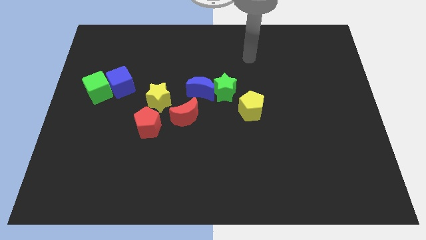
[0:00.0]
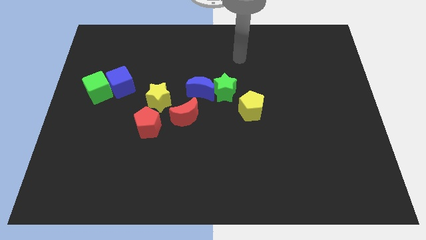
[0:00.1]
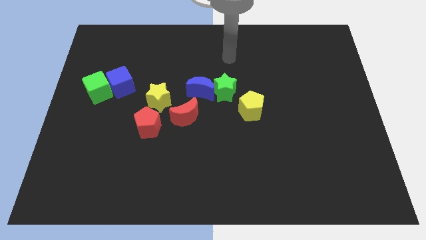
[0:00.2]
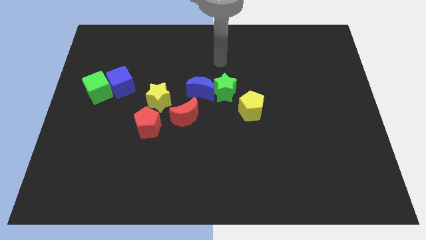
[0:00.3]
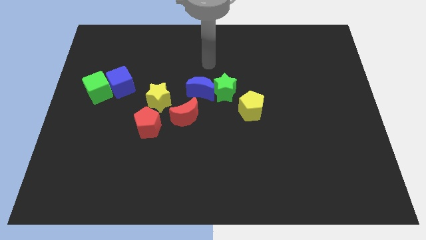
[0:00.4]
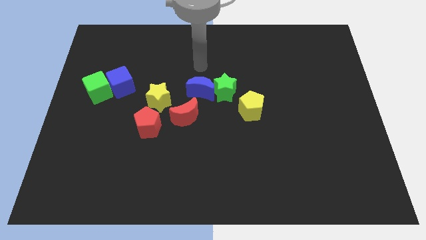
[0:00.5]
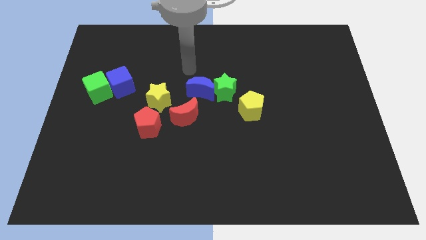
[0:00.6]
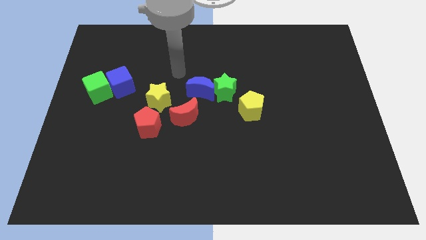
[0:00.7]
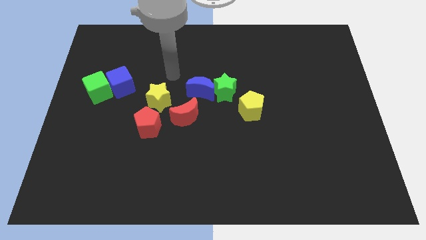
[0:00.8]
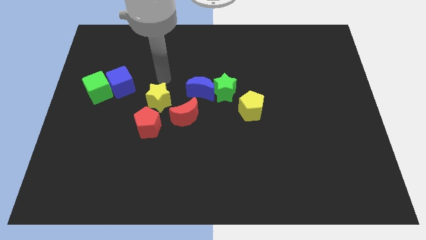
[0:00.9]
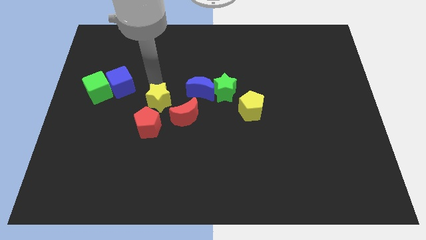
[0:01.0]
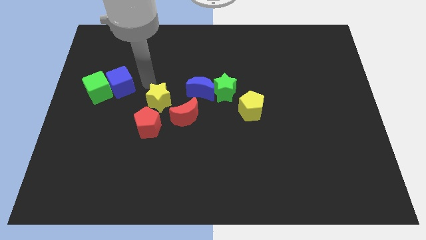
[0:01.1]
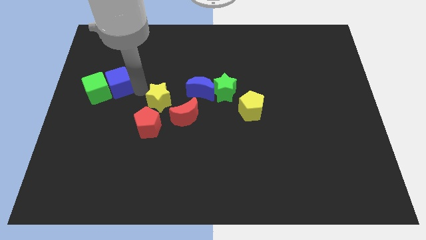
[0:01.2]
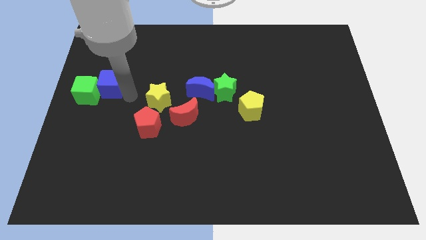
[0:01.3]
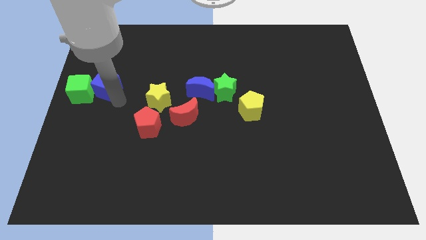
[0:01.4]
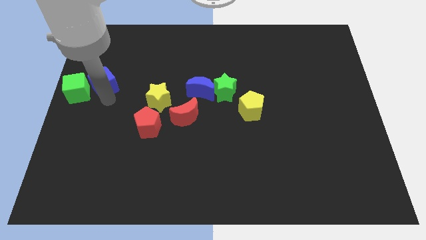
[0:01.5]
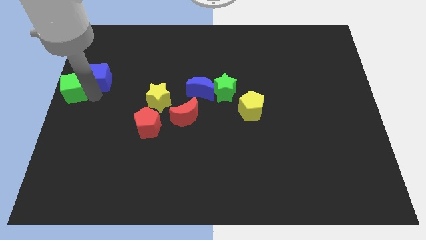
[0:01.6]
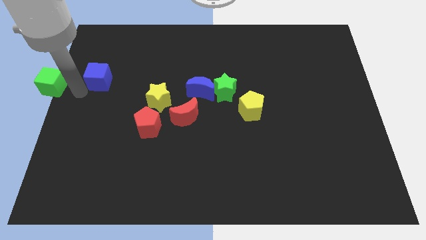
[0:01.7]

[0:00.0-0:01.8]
pull the blue cube apart from the green cube

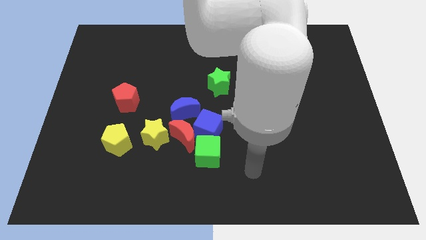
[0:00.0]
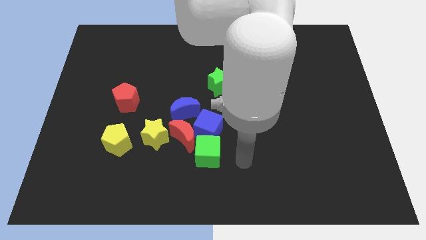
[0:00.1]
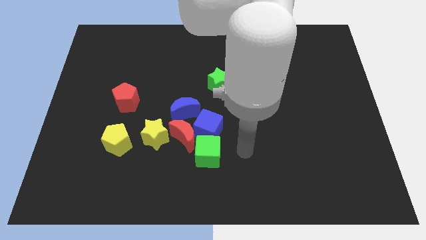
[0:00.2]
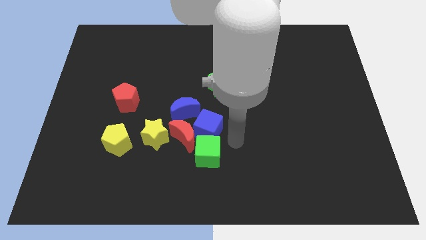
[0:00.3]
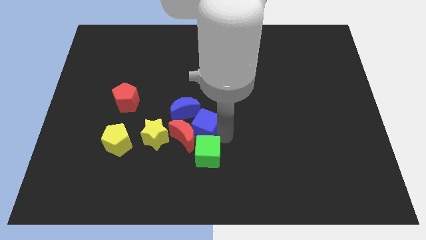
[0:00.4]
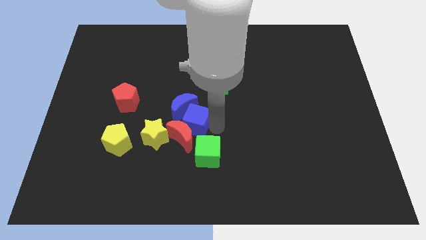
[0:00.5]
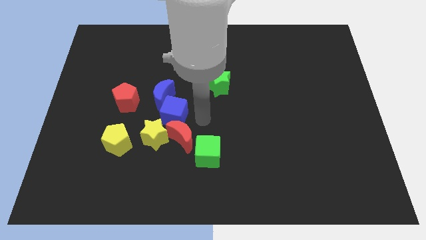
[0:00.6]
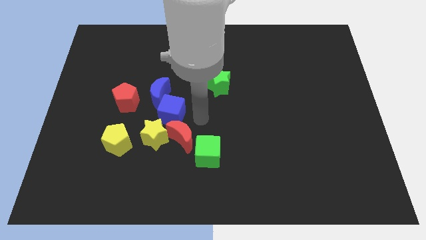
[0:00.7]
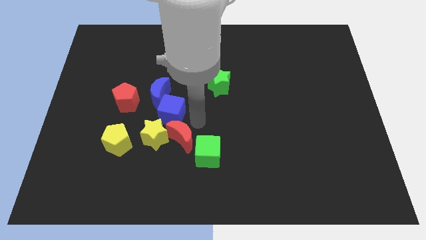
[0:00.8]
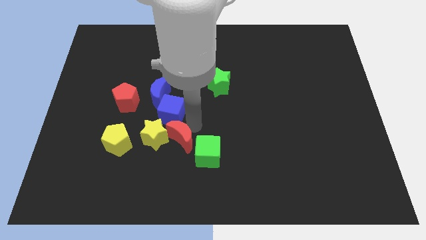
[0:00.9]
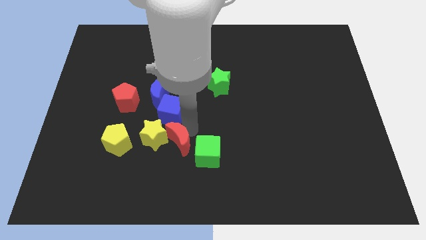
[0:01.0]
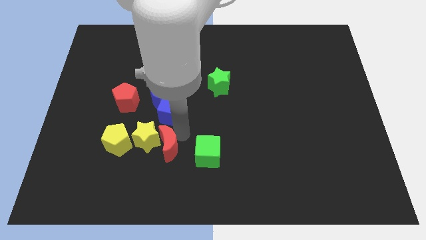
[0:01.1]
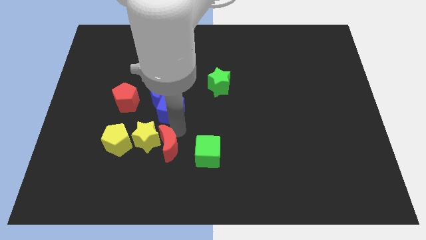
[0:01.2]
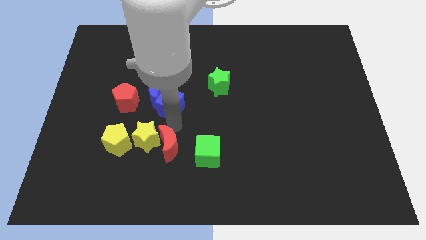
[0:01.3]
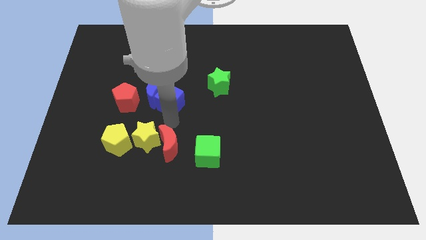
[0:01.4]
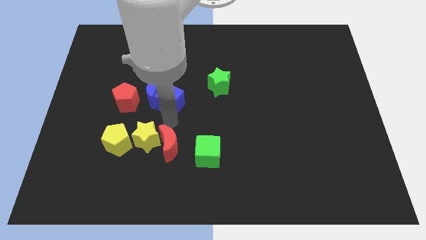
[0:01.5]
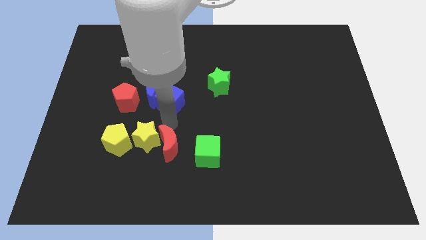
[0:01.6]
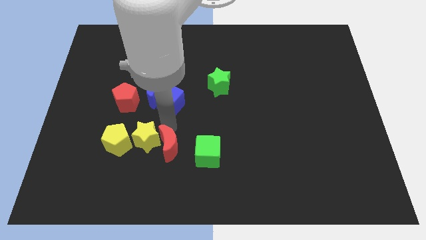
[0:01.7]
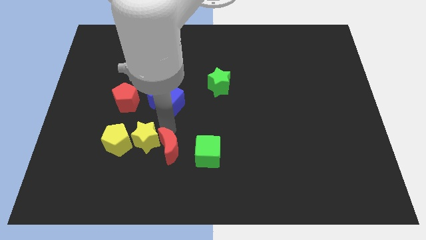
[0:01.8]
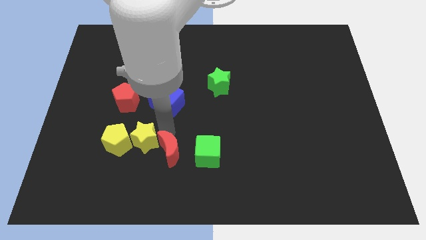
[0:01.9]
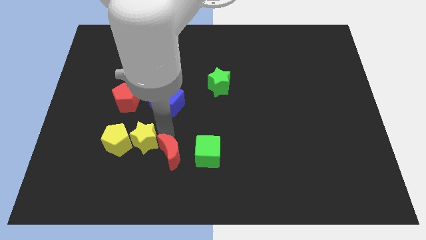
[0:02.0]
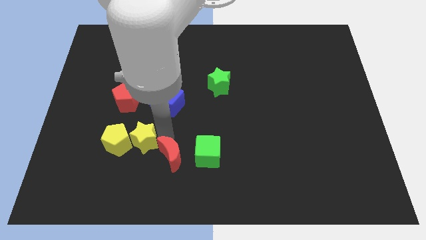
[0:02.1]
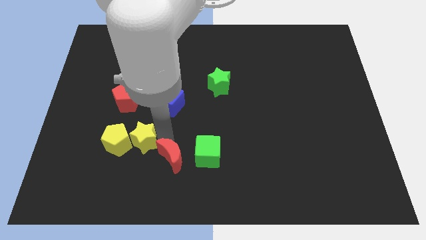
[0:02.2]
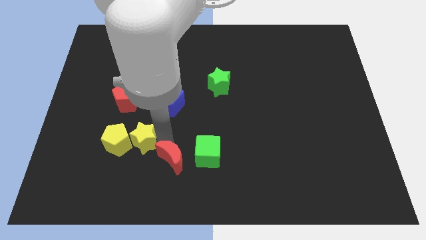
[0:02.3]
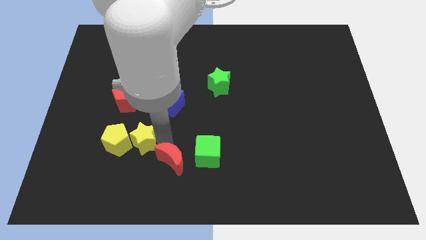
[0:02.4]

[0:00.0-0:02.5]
pull the red moon apart from the group of blocks

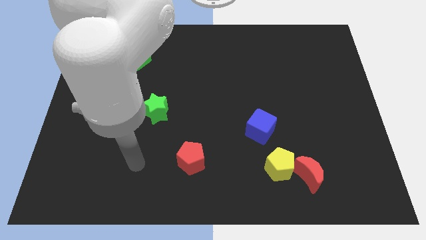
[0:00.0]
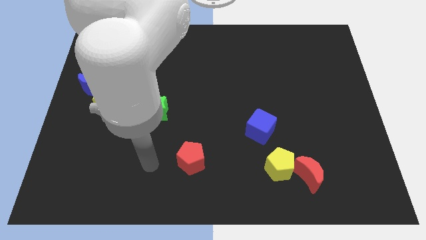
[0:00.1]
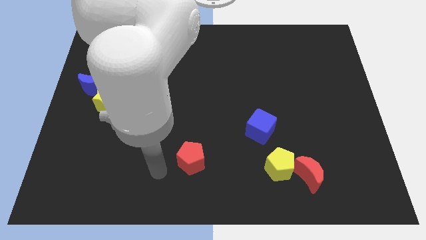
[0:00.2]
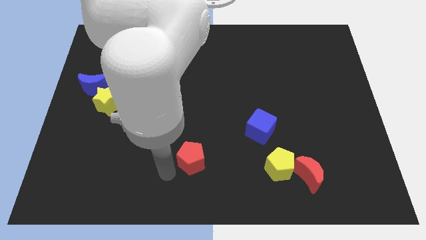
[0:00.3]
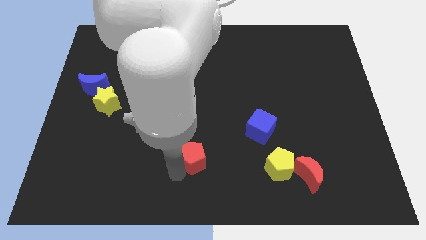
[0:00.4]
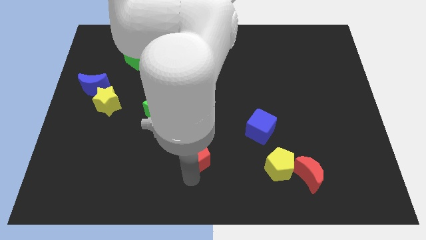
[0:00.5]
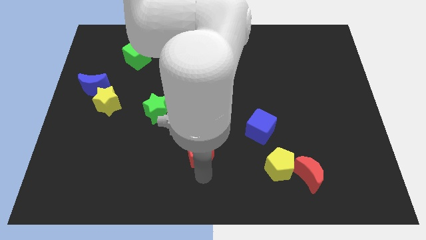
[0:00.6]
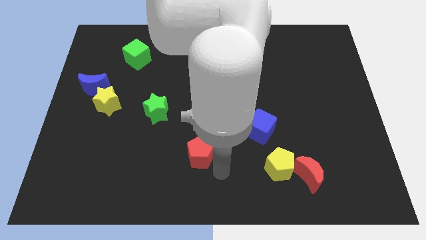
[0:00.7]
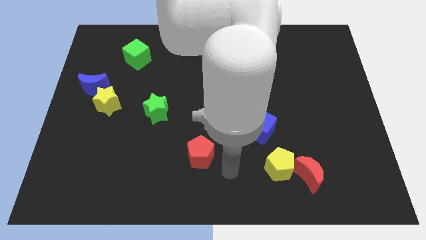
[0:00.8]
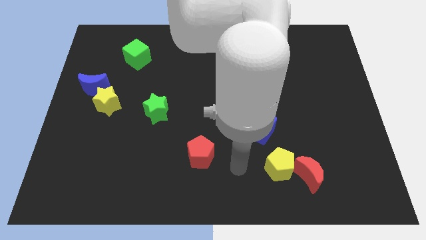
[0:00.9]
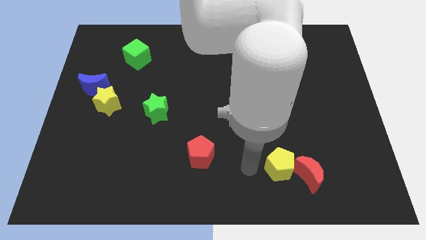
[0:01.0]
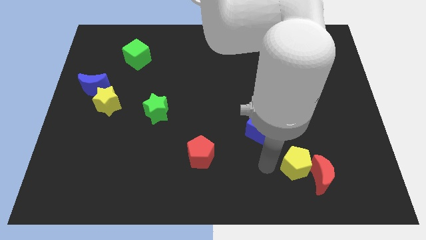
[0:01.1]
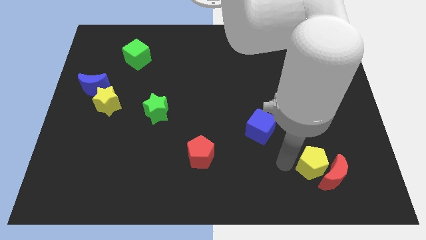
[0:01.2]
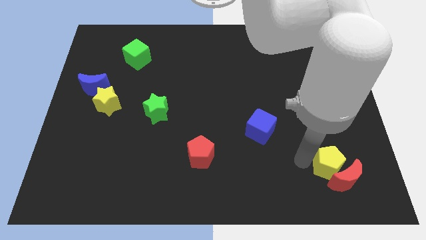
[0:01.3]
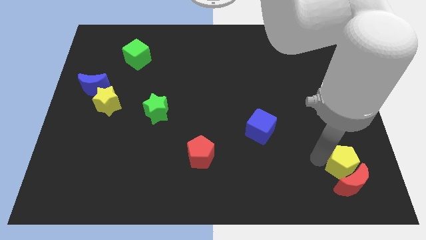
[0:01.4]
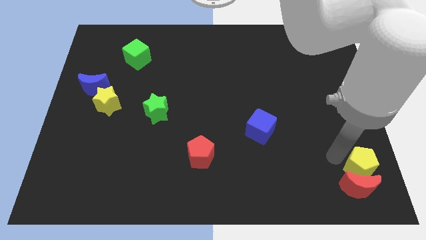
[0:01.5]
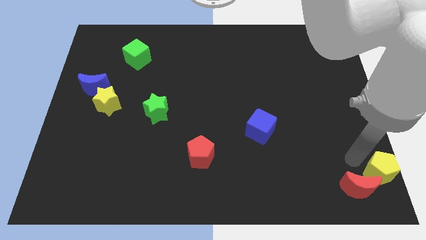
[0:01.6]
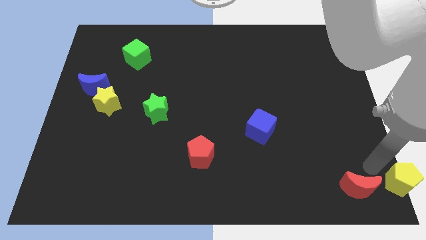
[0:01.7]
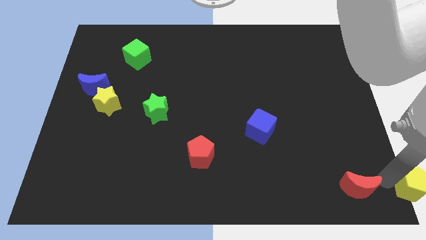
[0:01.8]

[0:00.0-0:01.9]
pull the red moon apart from the yellow pentagon

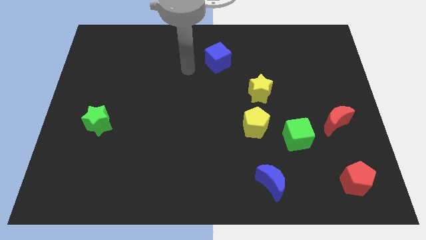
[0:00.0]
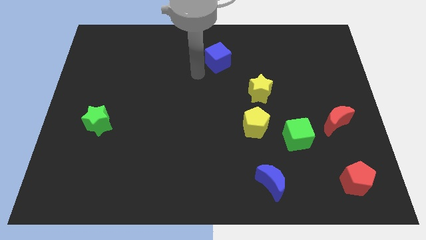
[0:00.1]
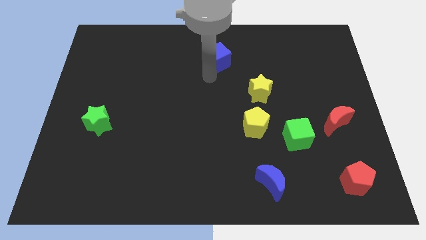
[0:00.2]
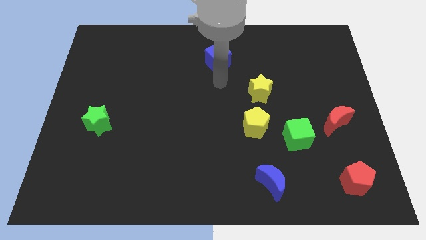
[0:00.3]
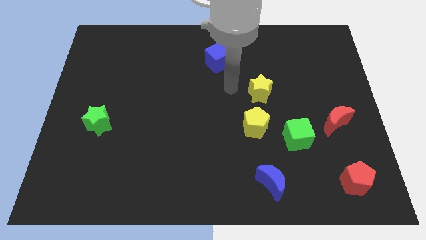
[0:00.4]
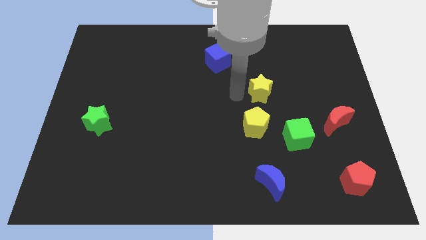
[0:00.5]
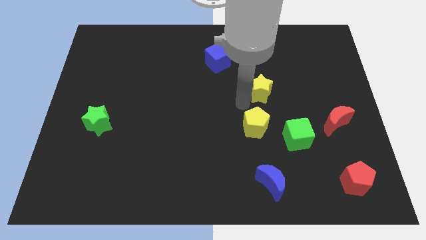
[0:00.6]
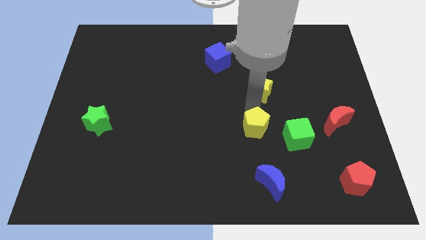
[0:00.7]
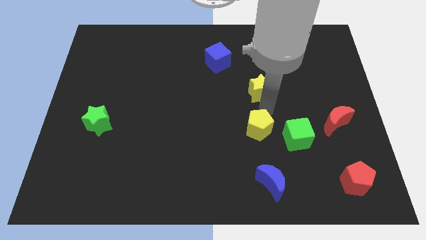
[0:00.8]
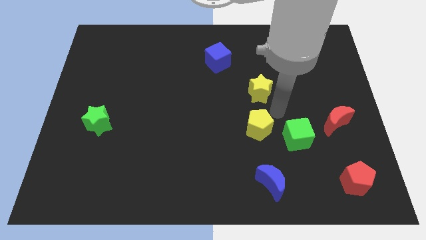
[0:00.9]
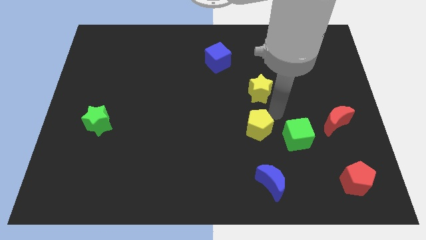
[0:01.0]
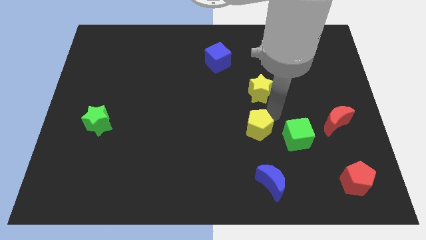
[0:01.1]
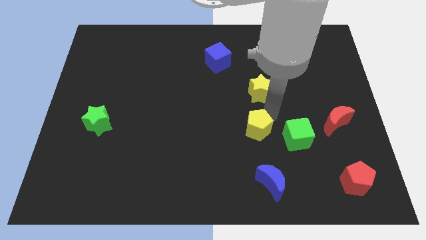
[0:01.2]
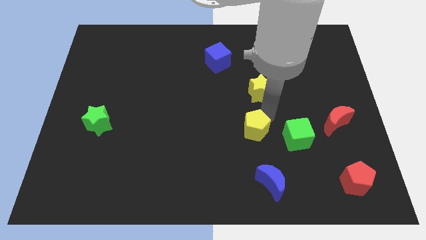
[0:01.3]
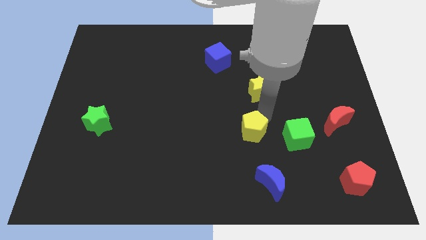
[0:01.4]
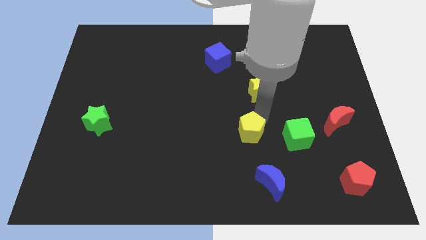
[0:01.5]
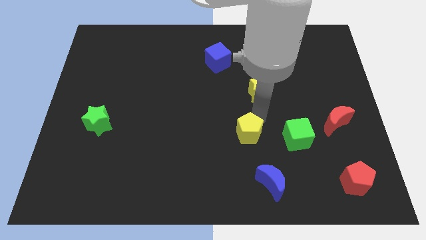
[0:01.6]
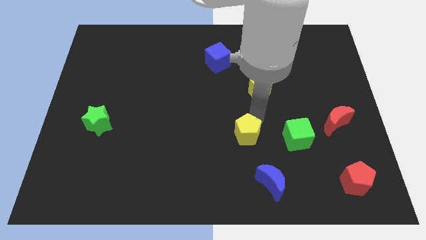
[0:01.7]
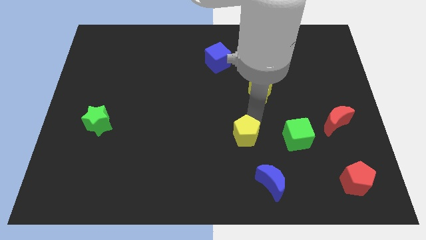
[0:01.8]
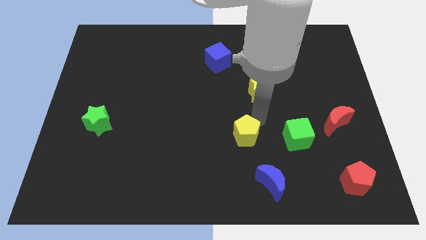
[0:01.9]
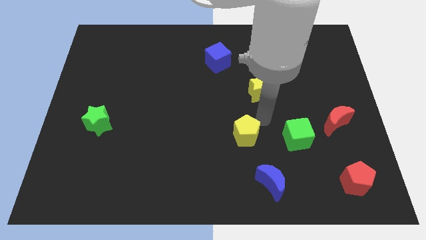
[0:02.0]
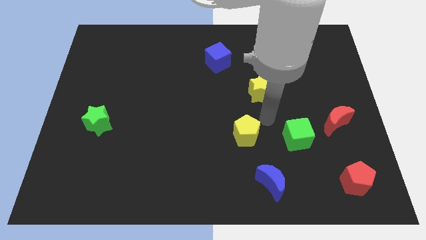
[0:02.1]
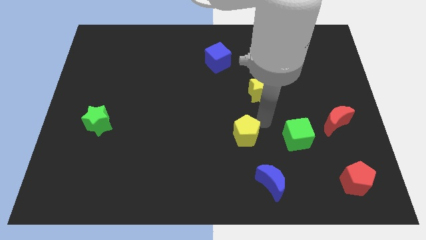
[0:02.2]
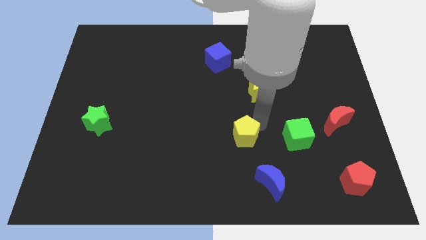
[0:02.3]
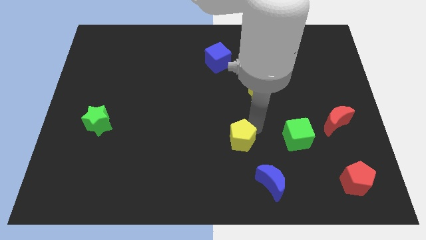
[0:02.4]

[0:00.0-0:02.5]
move the yellow pentagon away from the green cube and yellow star

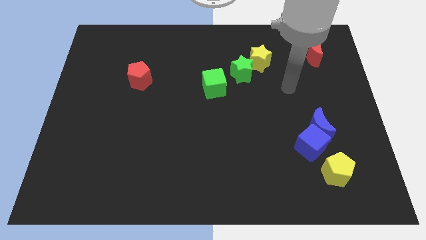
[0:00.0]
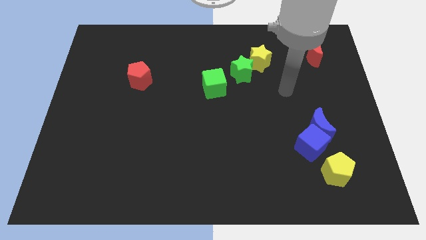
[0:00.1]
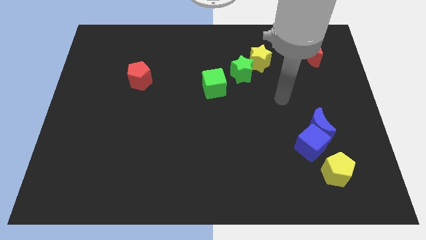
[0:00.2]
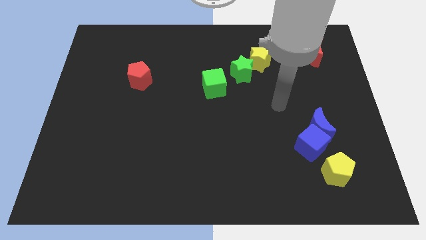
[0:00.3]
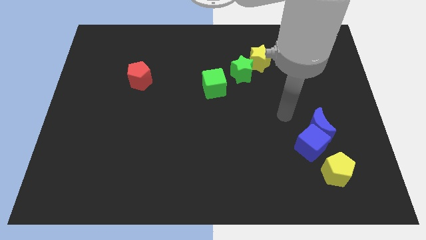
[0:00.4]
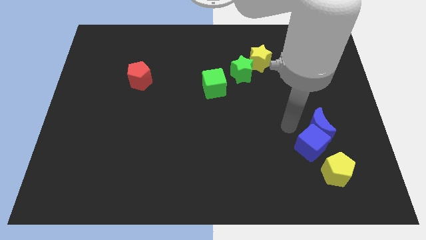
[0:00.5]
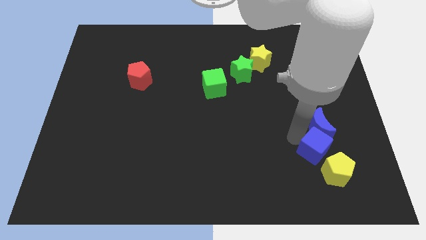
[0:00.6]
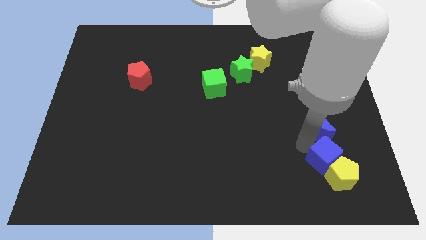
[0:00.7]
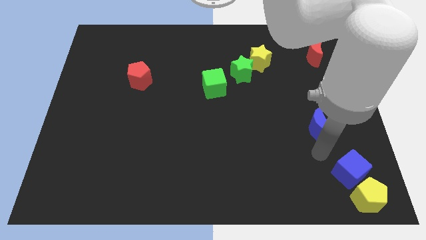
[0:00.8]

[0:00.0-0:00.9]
separate the blue moon from the blue cube
